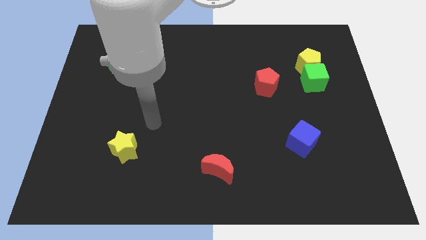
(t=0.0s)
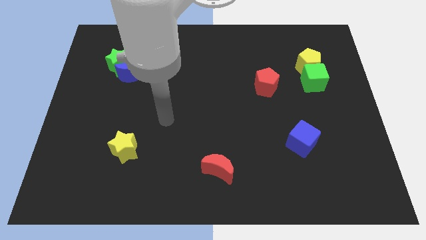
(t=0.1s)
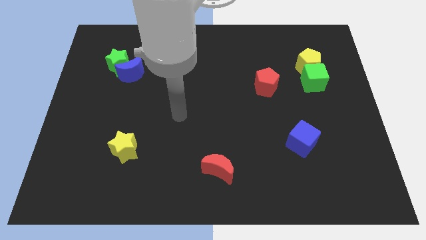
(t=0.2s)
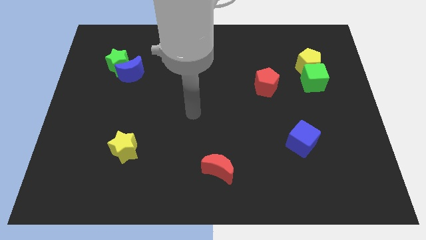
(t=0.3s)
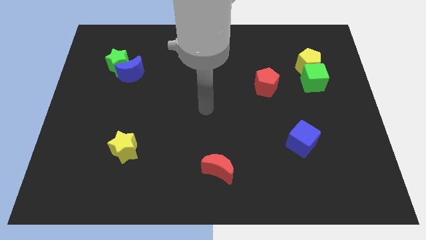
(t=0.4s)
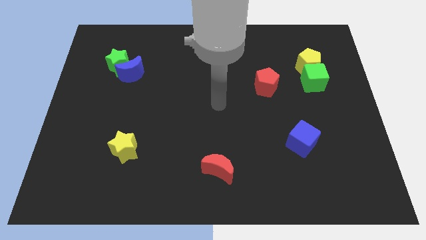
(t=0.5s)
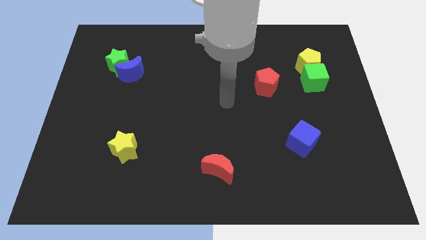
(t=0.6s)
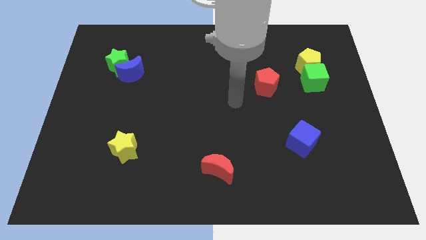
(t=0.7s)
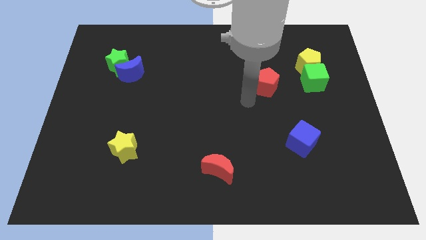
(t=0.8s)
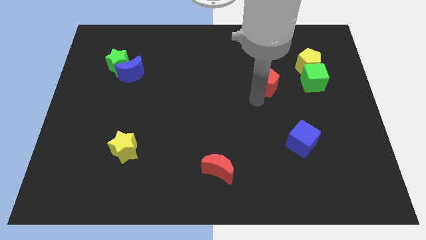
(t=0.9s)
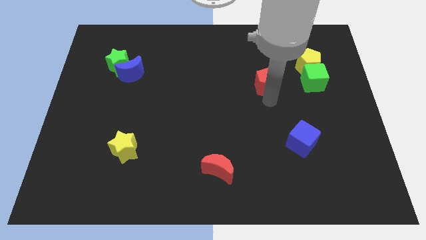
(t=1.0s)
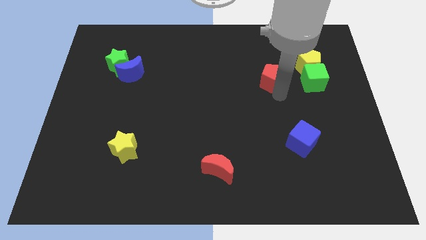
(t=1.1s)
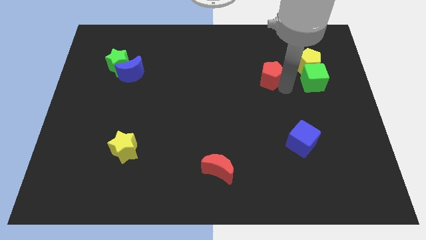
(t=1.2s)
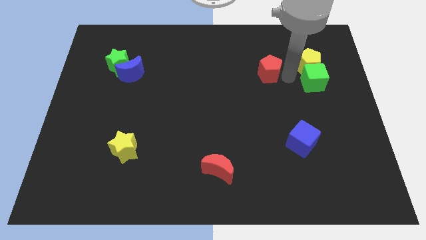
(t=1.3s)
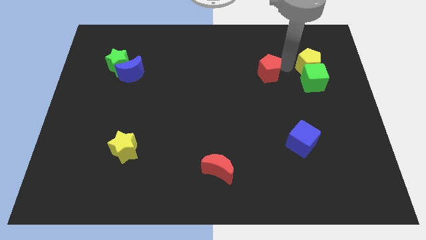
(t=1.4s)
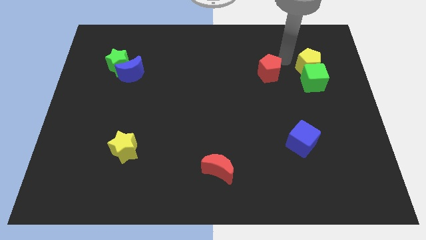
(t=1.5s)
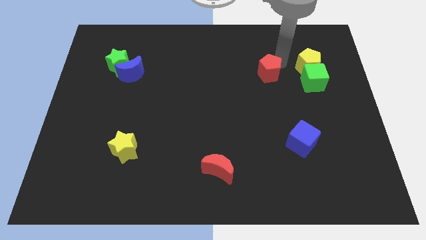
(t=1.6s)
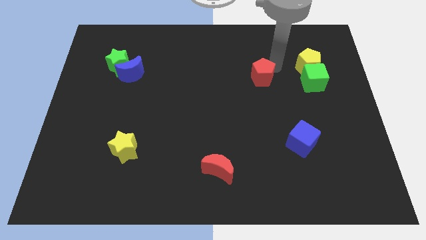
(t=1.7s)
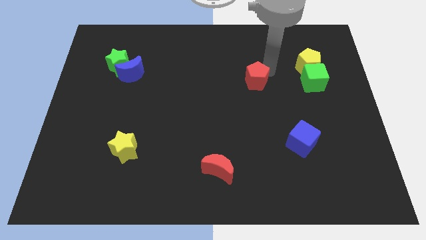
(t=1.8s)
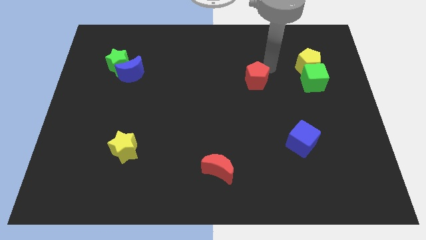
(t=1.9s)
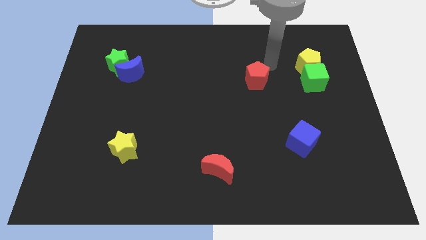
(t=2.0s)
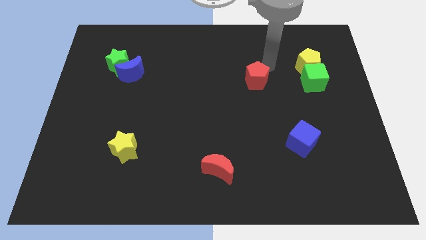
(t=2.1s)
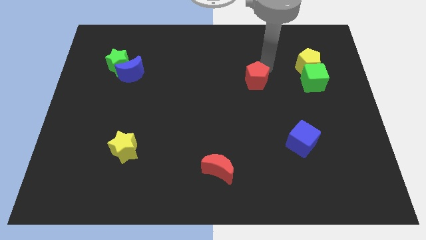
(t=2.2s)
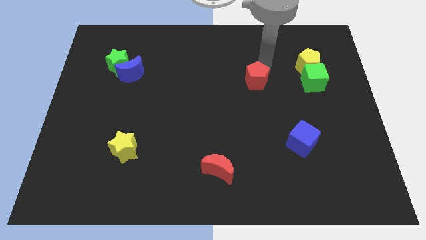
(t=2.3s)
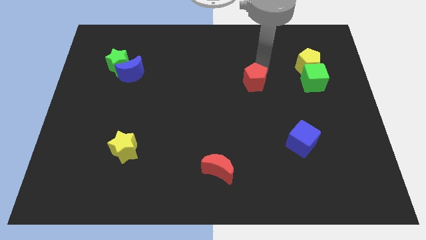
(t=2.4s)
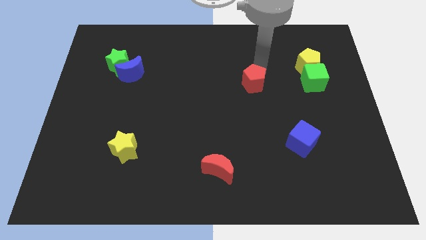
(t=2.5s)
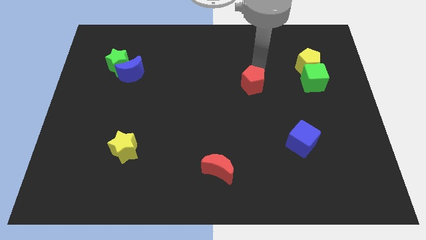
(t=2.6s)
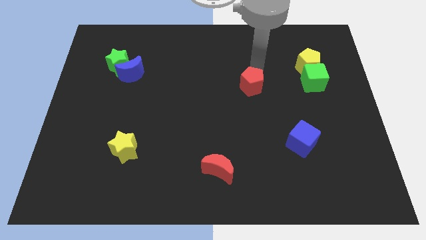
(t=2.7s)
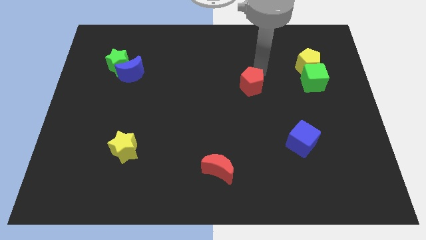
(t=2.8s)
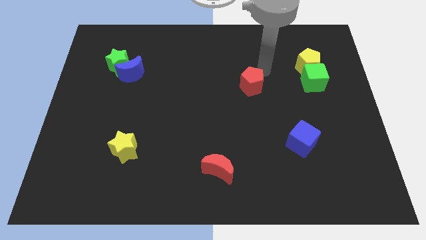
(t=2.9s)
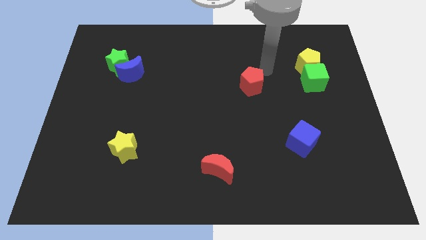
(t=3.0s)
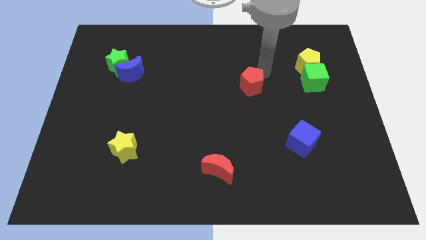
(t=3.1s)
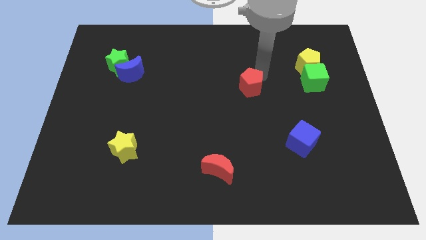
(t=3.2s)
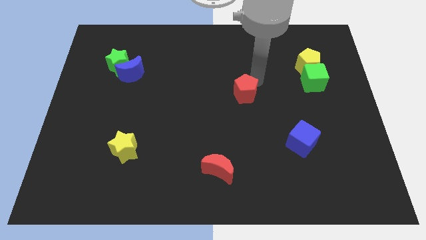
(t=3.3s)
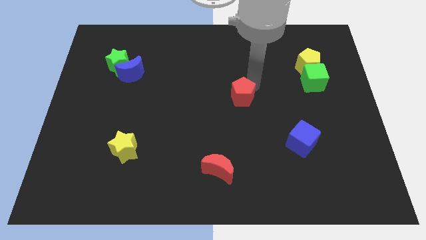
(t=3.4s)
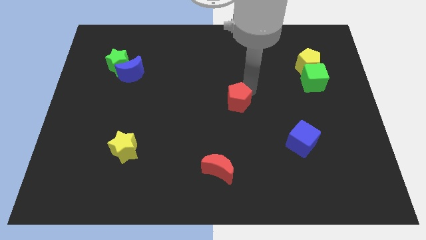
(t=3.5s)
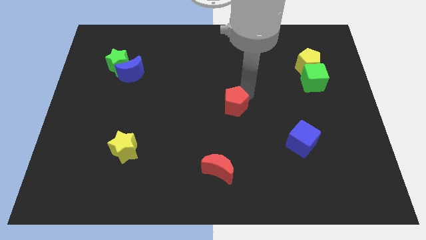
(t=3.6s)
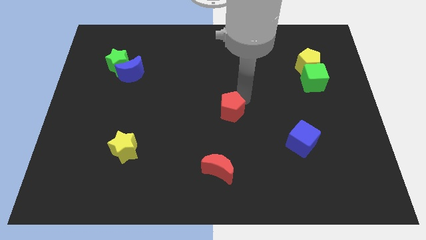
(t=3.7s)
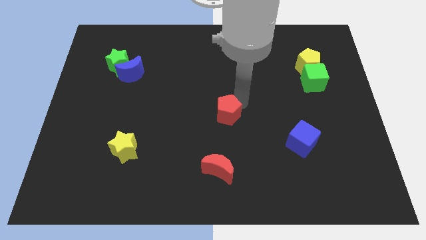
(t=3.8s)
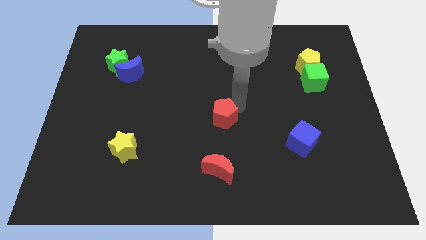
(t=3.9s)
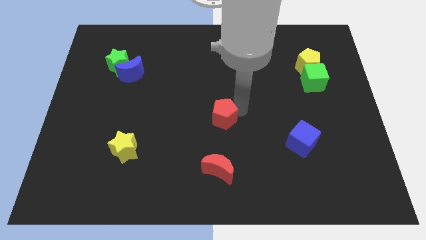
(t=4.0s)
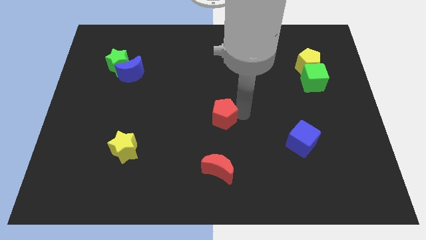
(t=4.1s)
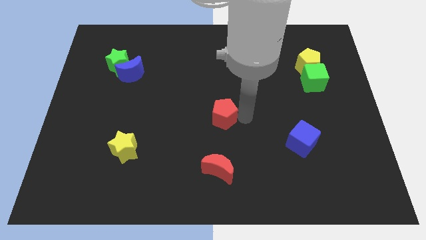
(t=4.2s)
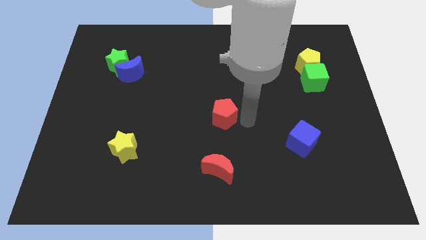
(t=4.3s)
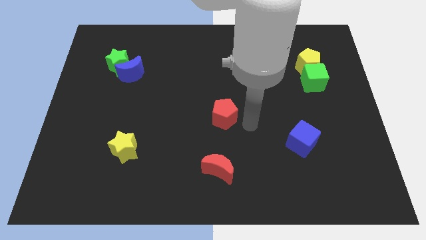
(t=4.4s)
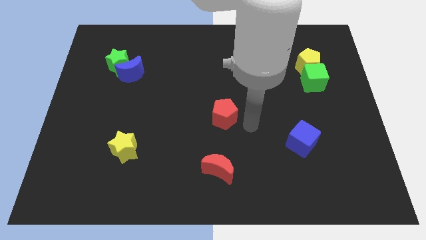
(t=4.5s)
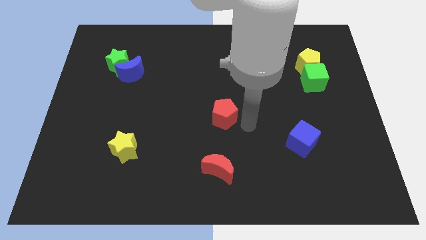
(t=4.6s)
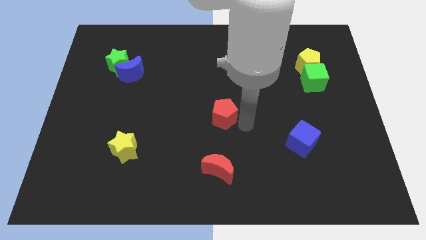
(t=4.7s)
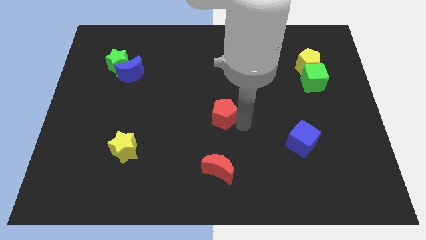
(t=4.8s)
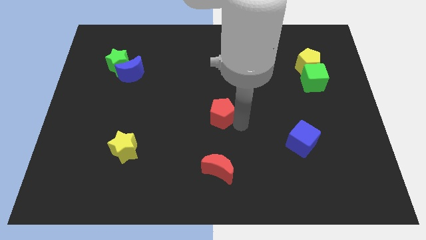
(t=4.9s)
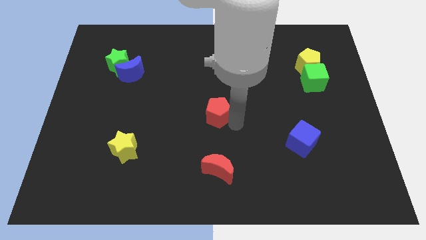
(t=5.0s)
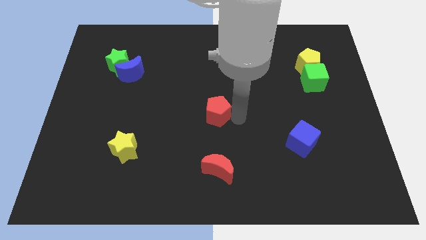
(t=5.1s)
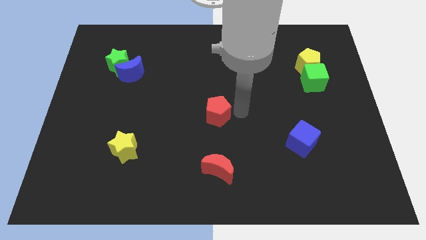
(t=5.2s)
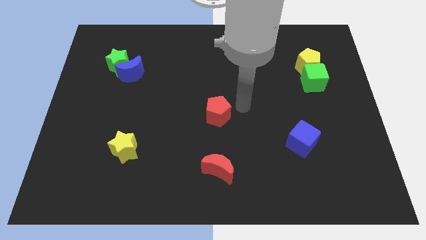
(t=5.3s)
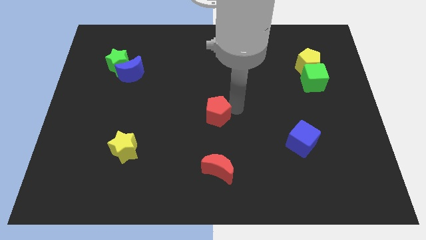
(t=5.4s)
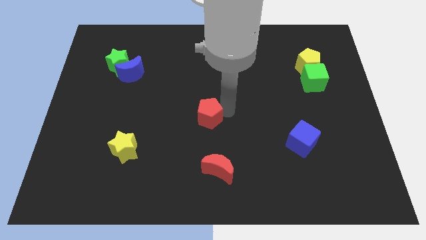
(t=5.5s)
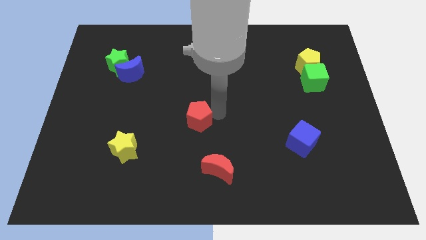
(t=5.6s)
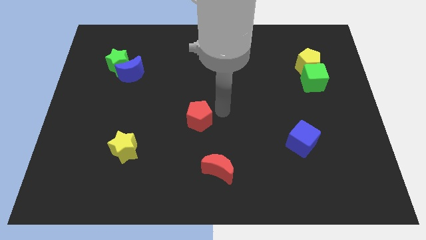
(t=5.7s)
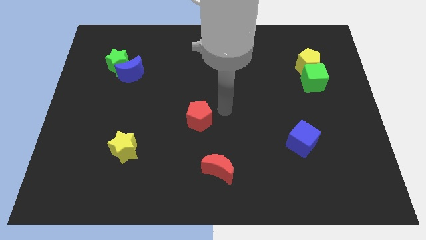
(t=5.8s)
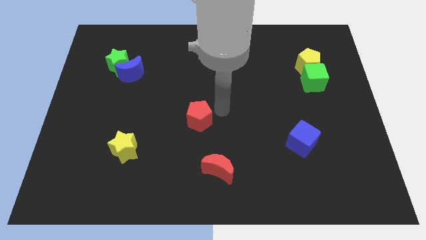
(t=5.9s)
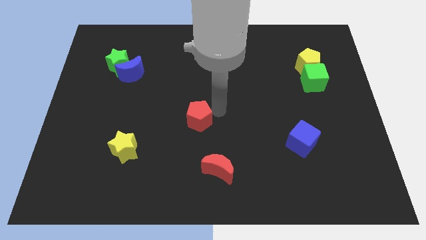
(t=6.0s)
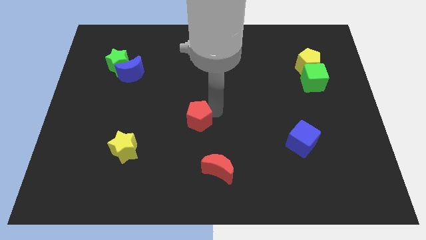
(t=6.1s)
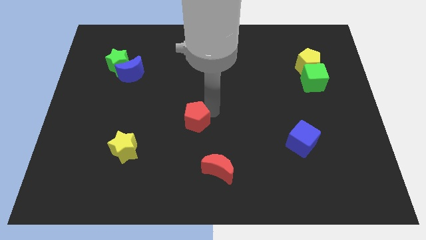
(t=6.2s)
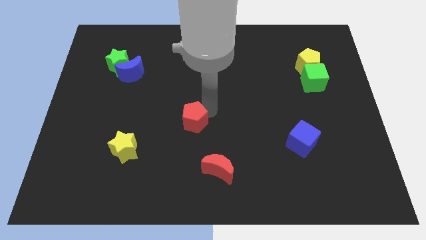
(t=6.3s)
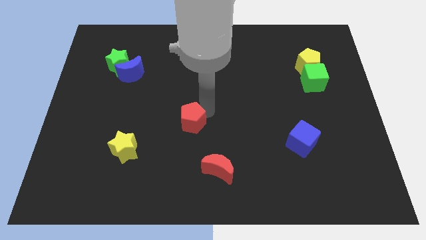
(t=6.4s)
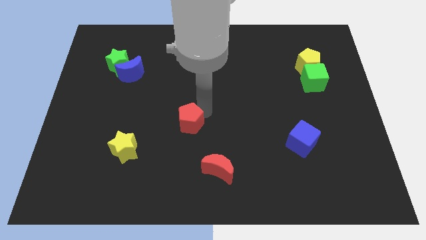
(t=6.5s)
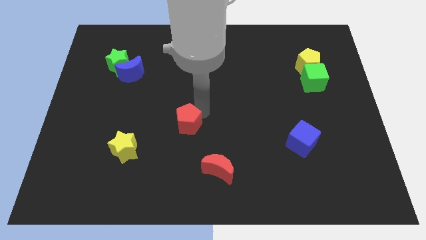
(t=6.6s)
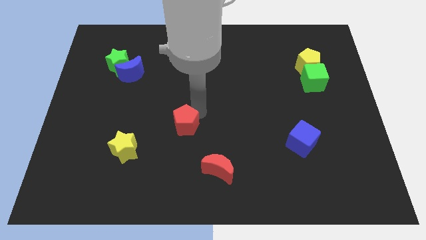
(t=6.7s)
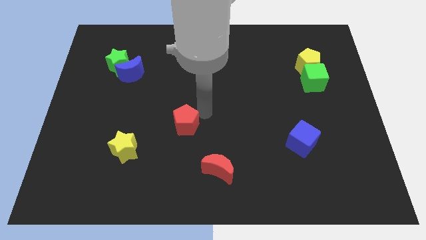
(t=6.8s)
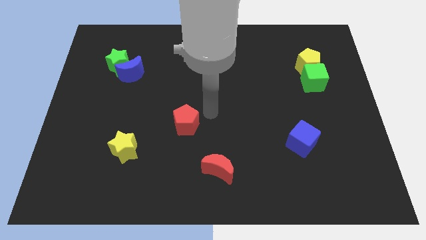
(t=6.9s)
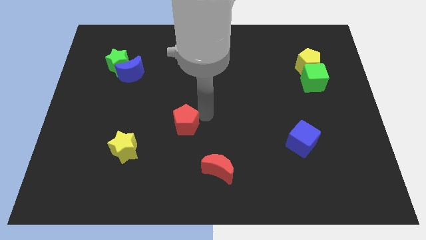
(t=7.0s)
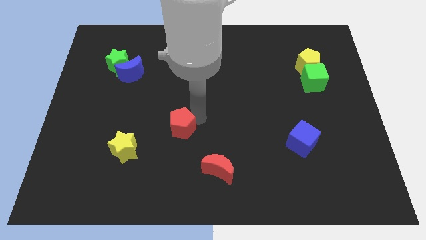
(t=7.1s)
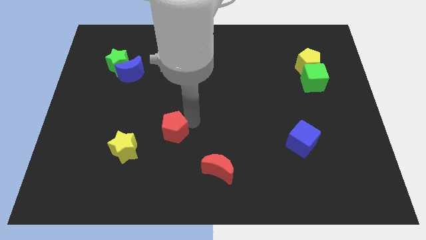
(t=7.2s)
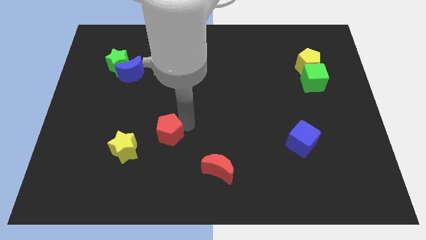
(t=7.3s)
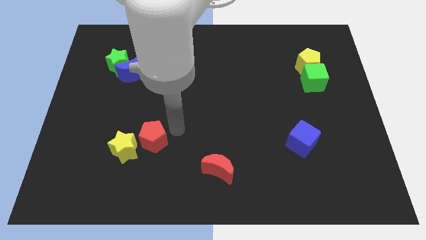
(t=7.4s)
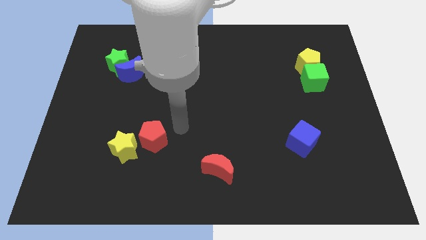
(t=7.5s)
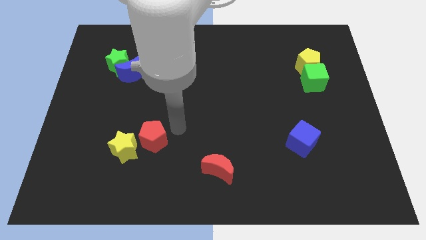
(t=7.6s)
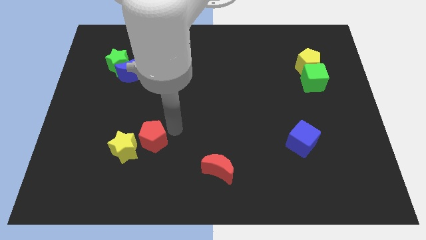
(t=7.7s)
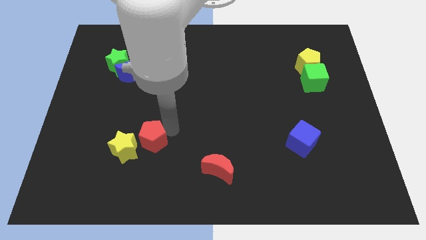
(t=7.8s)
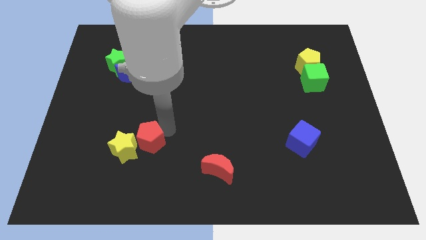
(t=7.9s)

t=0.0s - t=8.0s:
slide the red pentagon to the yellow star

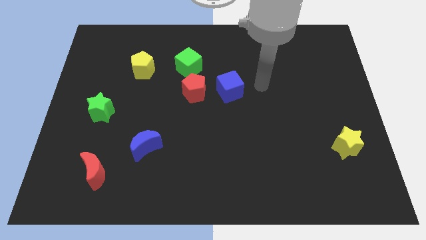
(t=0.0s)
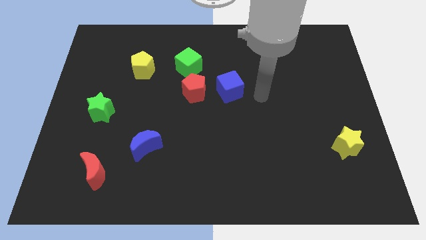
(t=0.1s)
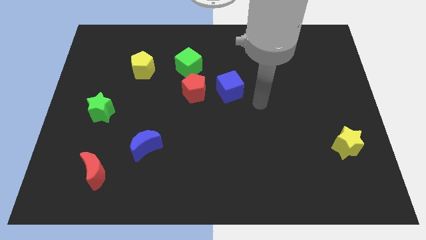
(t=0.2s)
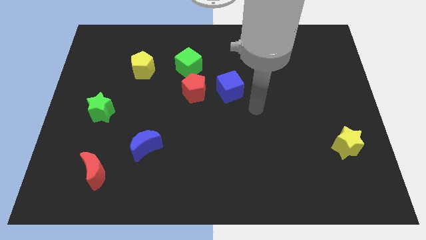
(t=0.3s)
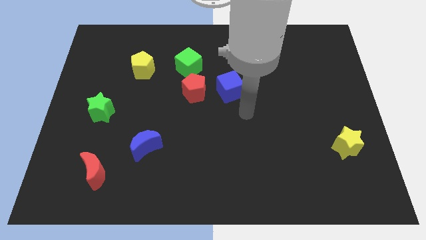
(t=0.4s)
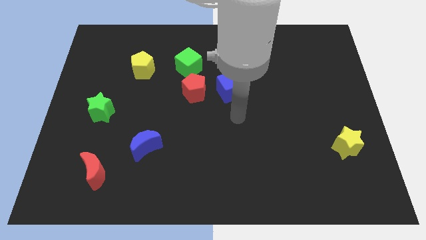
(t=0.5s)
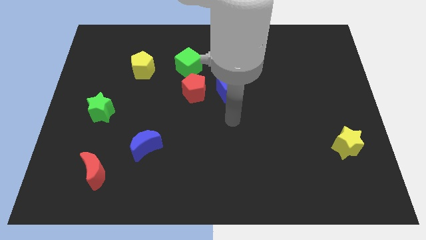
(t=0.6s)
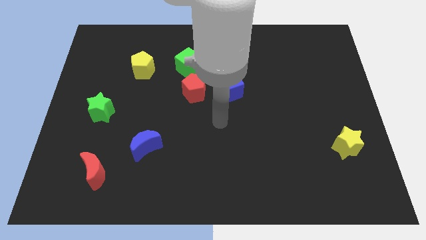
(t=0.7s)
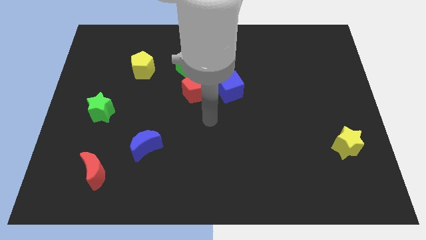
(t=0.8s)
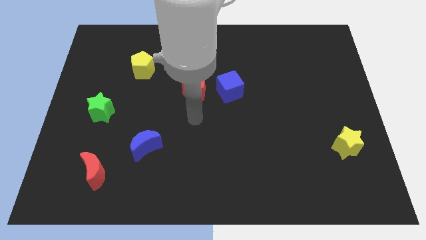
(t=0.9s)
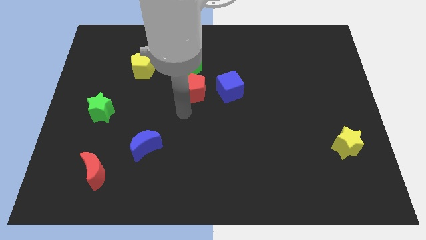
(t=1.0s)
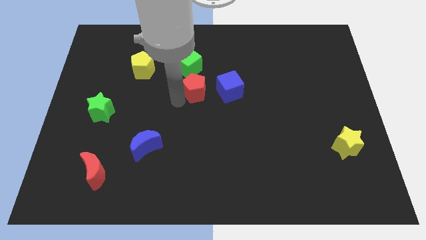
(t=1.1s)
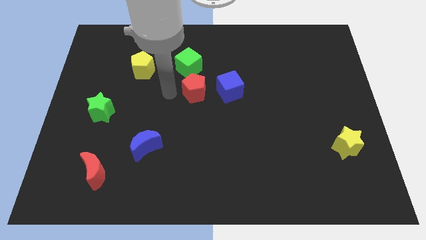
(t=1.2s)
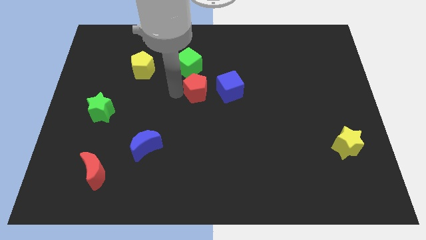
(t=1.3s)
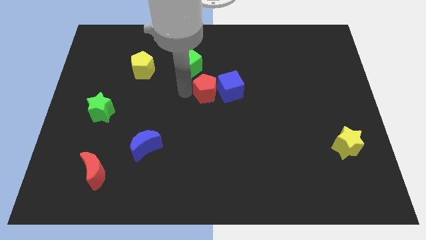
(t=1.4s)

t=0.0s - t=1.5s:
slide the red pentagon close to the blue cube
